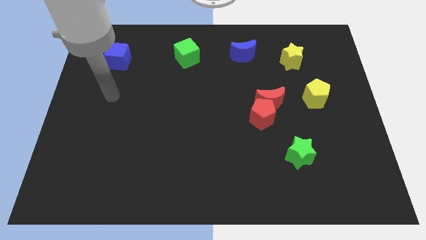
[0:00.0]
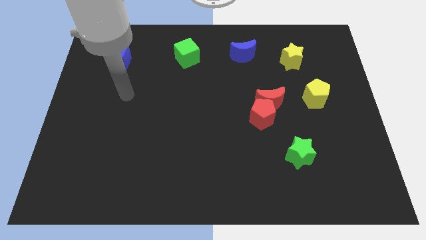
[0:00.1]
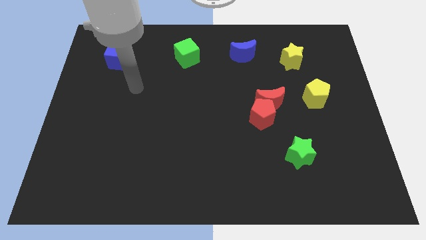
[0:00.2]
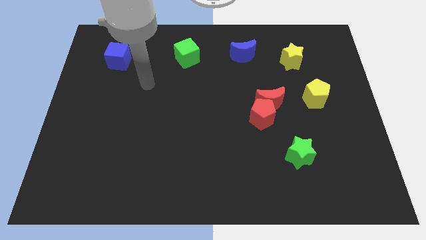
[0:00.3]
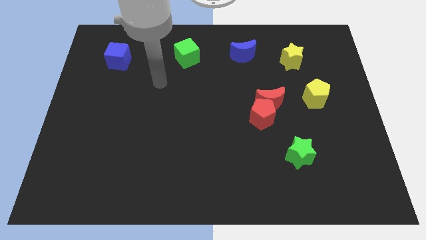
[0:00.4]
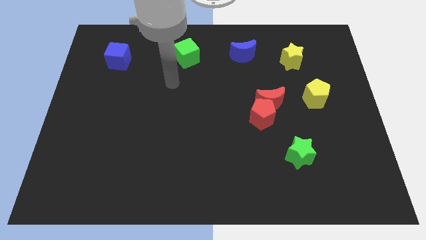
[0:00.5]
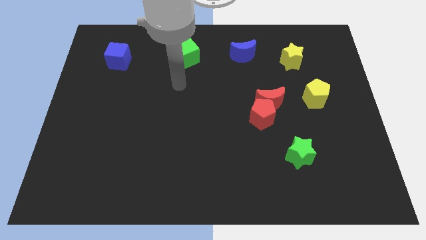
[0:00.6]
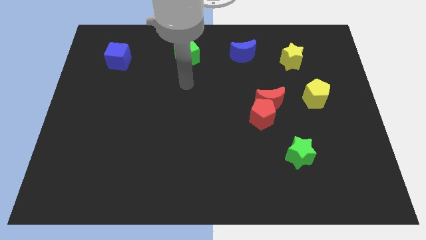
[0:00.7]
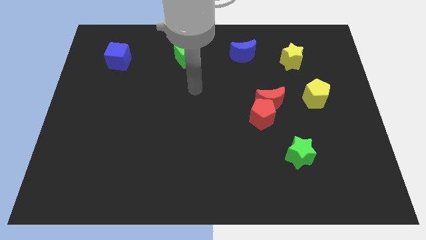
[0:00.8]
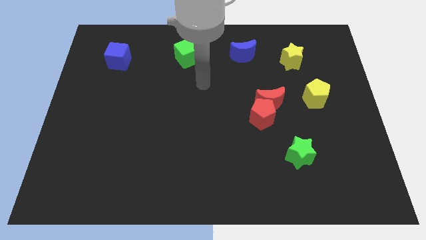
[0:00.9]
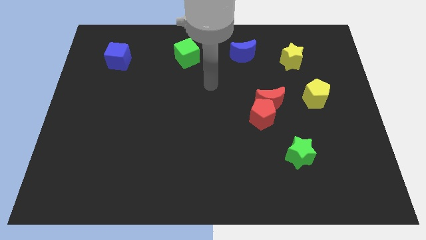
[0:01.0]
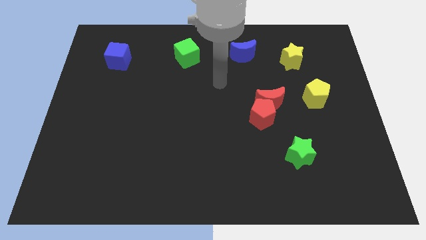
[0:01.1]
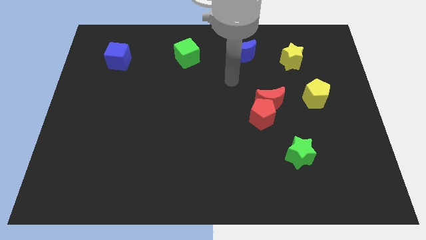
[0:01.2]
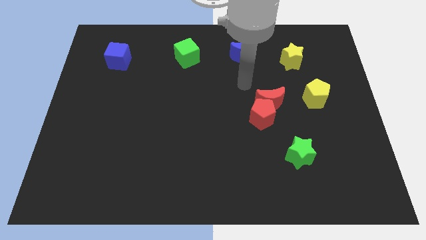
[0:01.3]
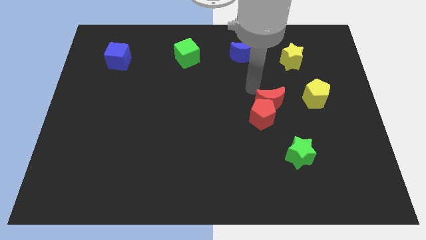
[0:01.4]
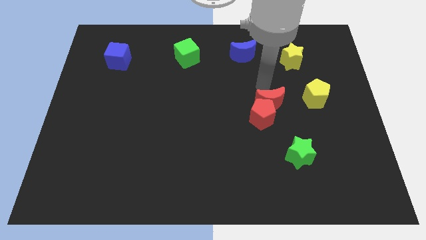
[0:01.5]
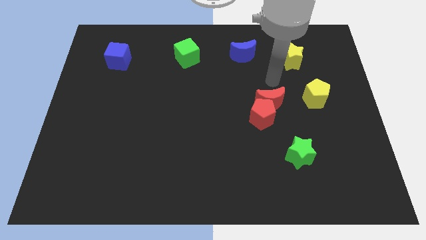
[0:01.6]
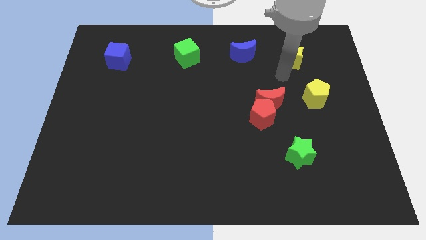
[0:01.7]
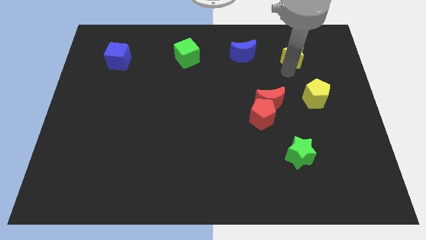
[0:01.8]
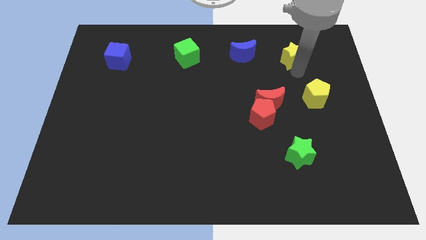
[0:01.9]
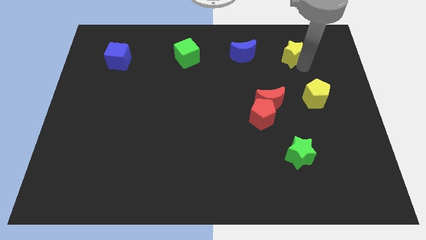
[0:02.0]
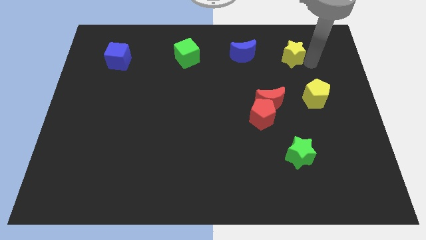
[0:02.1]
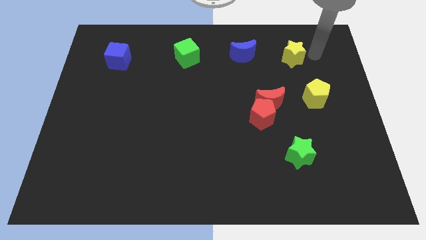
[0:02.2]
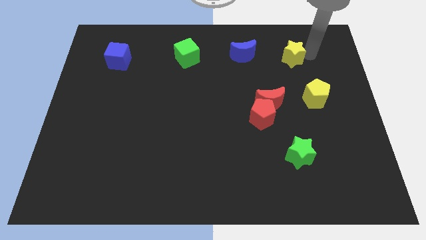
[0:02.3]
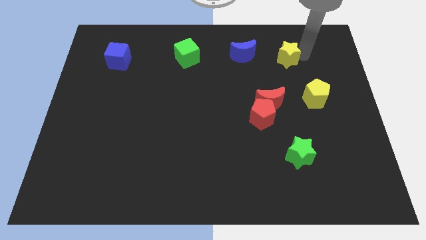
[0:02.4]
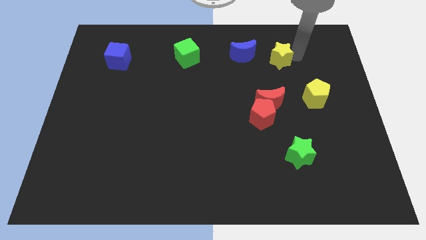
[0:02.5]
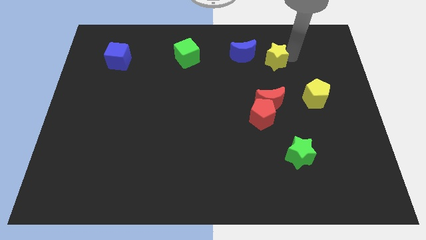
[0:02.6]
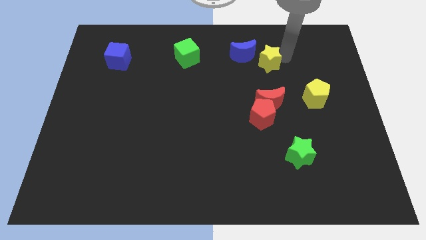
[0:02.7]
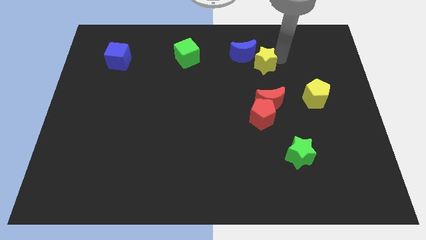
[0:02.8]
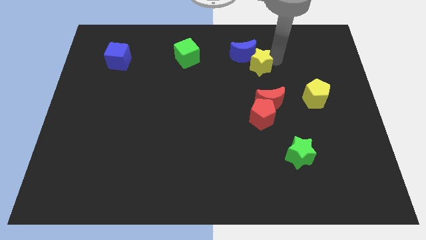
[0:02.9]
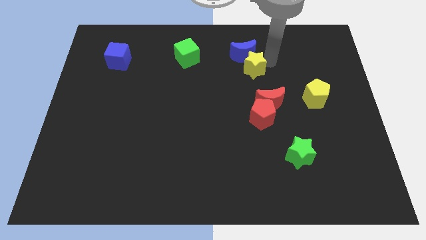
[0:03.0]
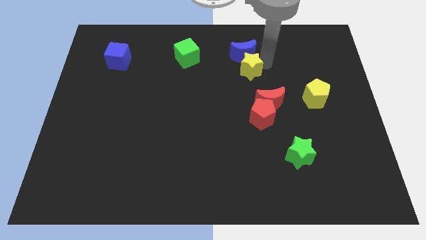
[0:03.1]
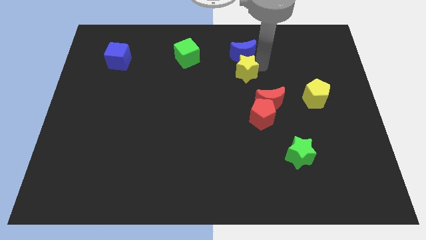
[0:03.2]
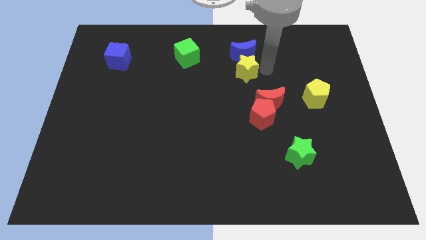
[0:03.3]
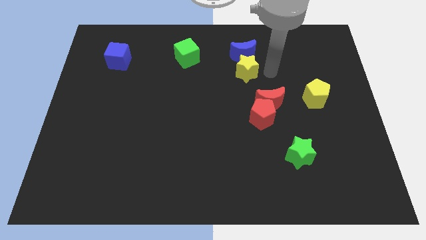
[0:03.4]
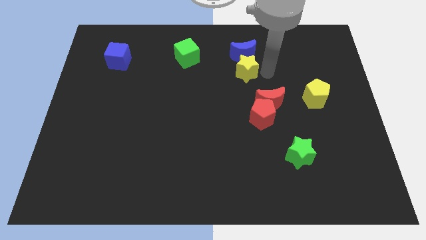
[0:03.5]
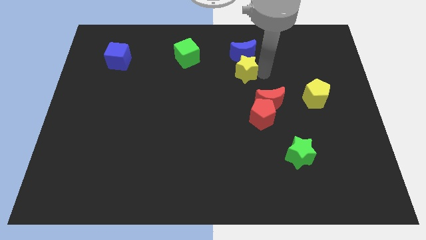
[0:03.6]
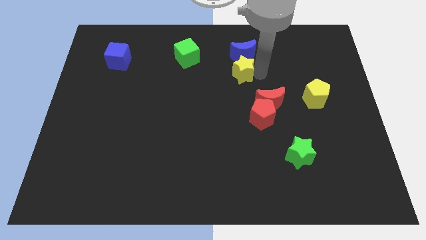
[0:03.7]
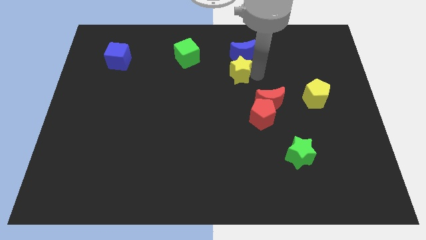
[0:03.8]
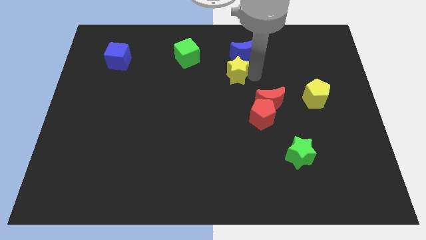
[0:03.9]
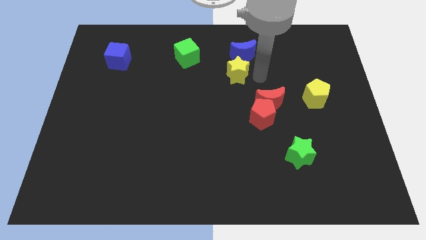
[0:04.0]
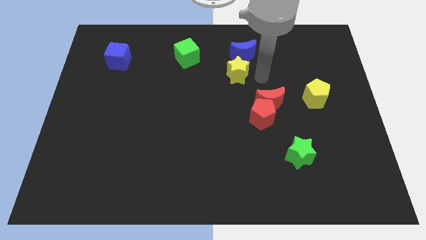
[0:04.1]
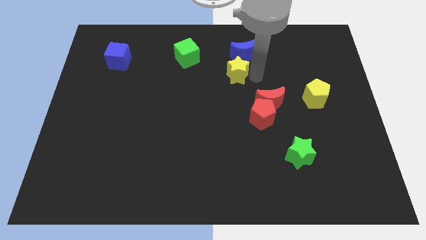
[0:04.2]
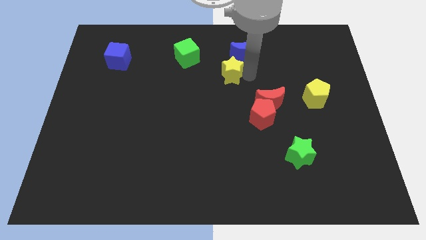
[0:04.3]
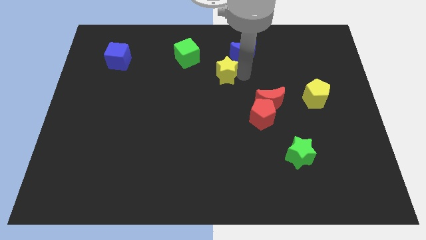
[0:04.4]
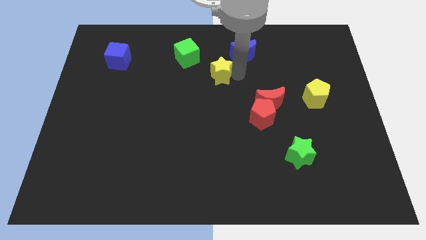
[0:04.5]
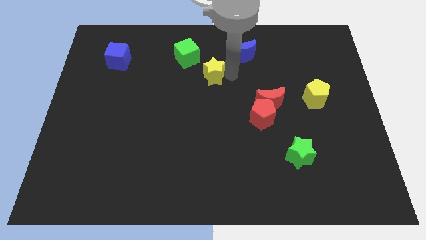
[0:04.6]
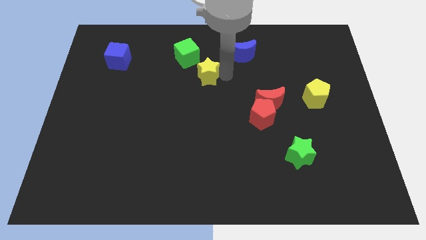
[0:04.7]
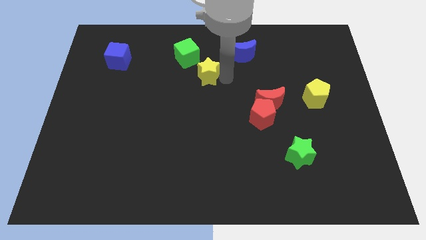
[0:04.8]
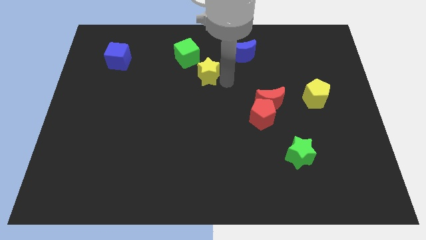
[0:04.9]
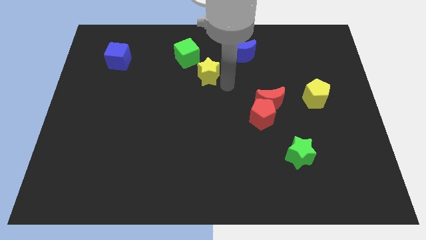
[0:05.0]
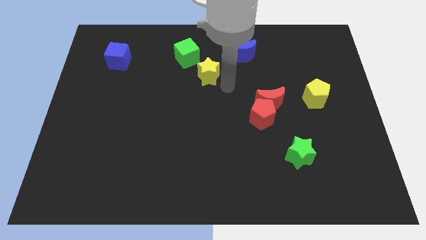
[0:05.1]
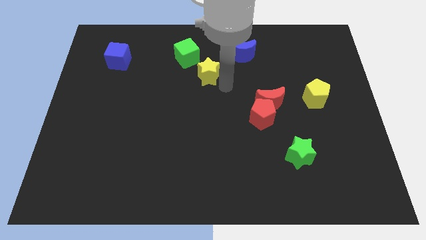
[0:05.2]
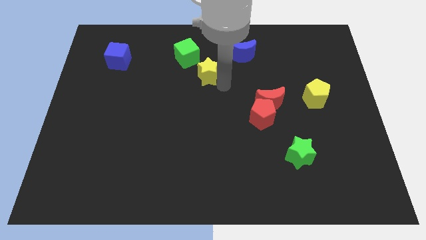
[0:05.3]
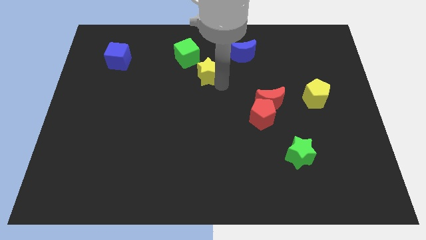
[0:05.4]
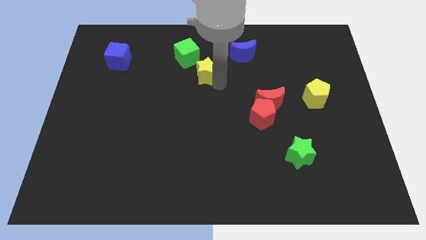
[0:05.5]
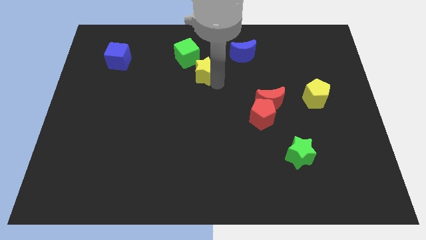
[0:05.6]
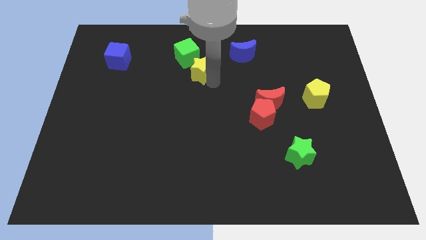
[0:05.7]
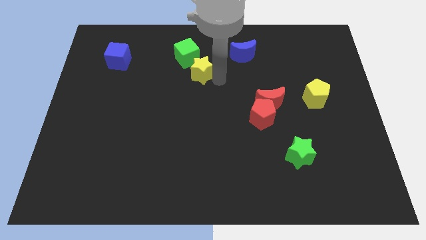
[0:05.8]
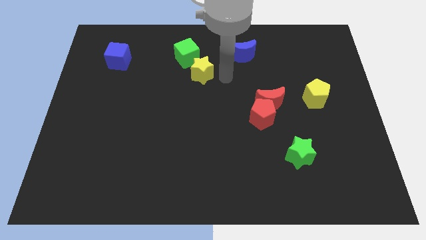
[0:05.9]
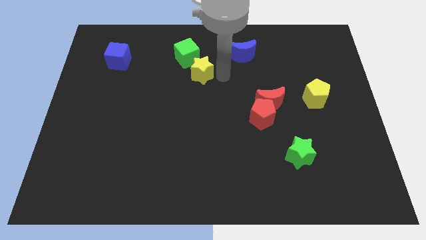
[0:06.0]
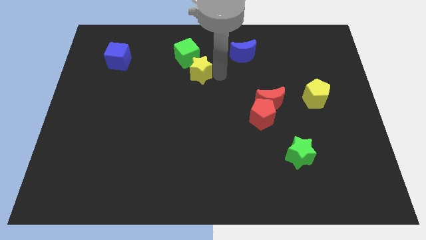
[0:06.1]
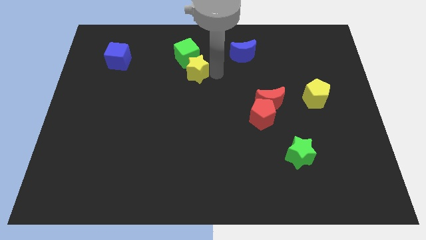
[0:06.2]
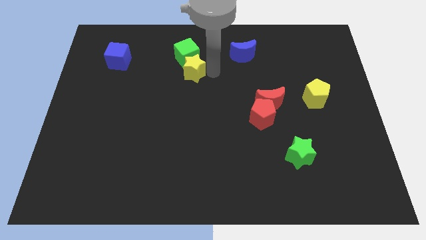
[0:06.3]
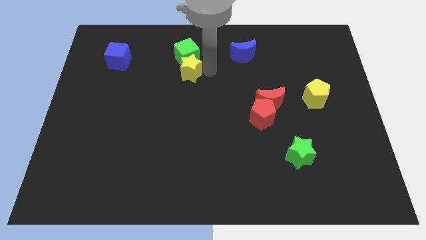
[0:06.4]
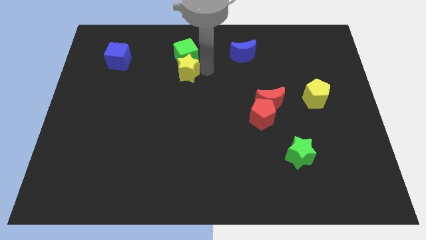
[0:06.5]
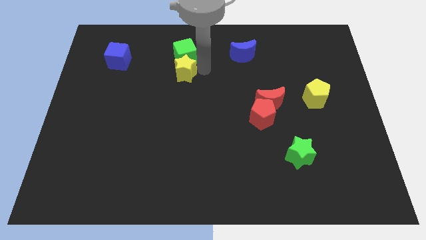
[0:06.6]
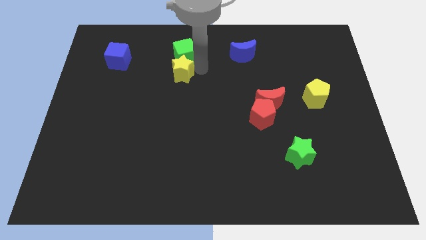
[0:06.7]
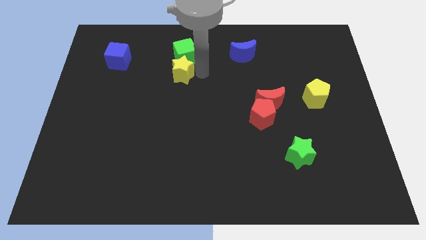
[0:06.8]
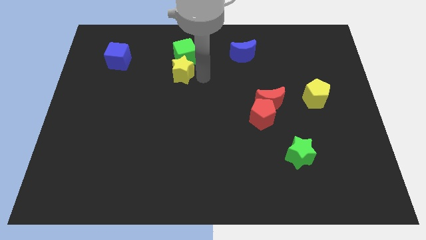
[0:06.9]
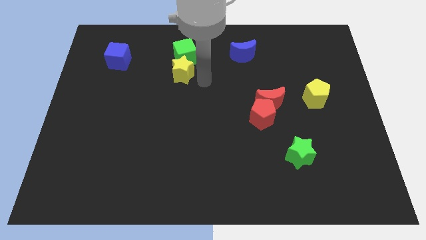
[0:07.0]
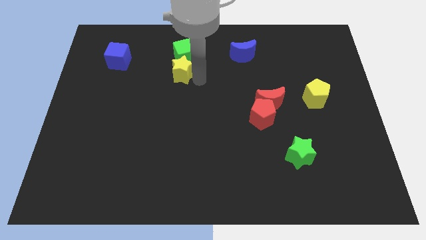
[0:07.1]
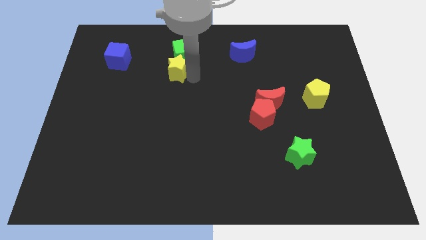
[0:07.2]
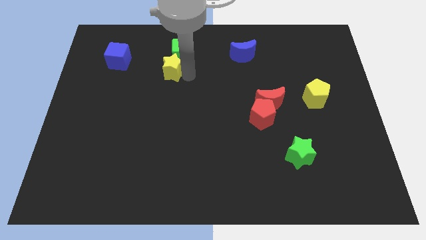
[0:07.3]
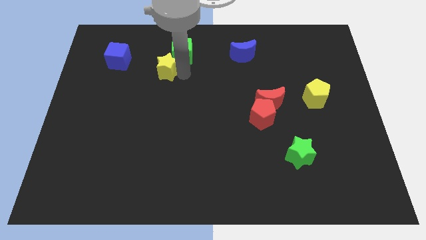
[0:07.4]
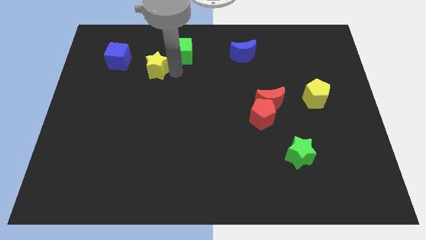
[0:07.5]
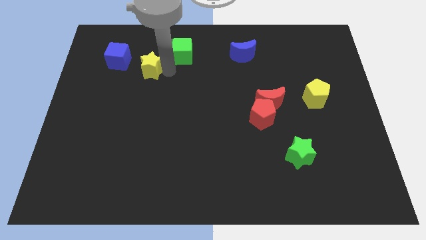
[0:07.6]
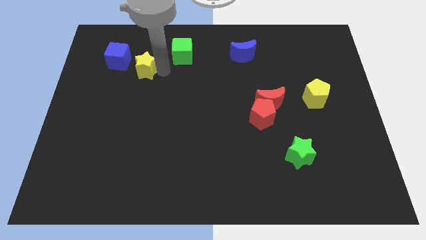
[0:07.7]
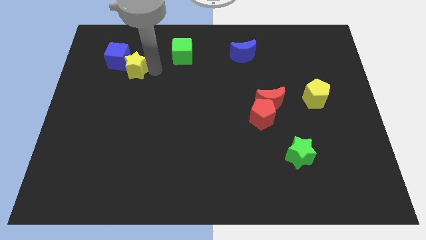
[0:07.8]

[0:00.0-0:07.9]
put the yellow star next to the blue cube

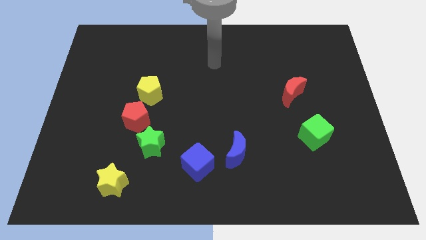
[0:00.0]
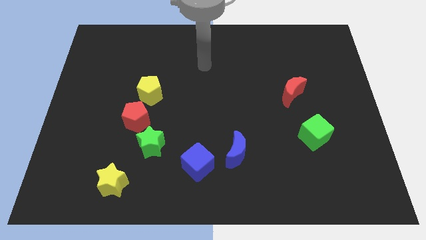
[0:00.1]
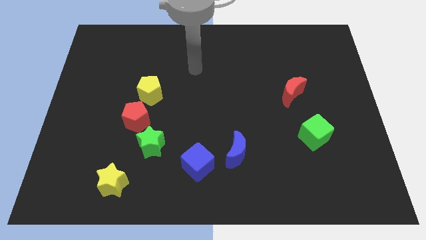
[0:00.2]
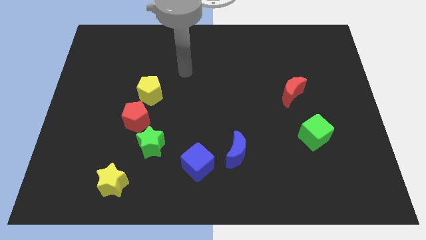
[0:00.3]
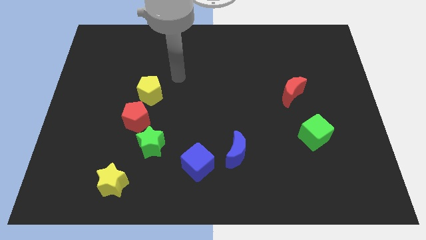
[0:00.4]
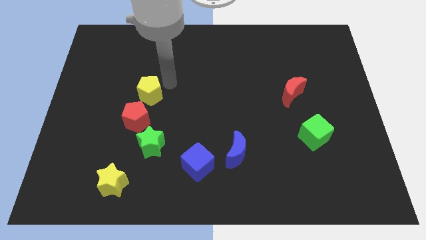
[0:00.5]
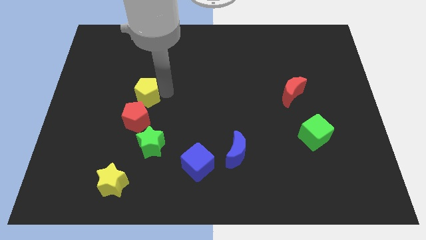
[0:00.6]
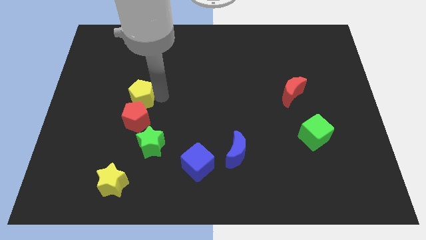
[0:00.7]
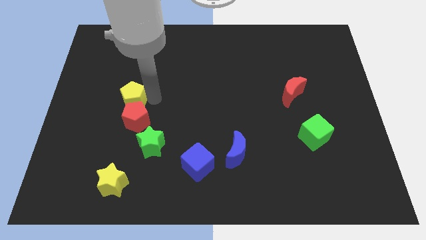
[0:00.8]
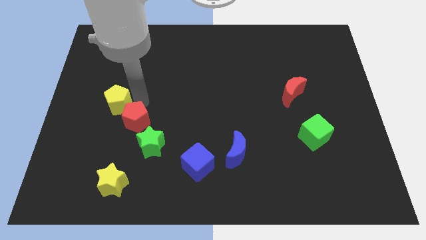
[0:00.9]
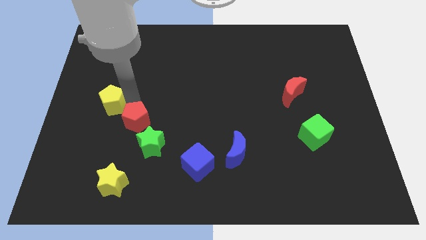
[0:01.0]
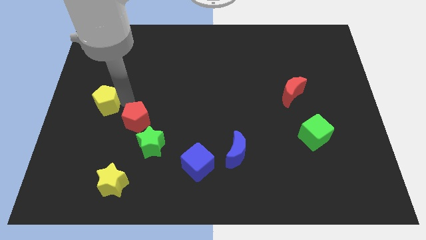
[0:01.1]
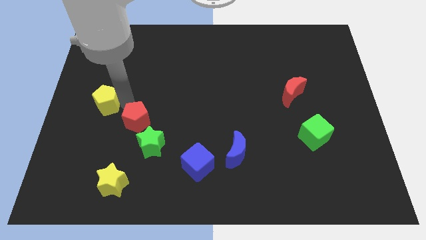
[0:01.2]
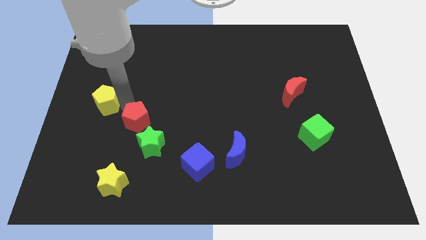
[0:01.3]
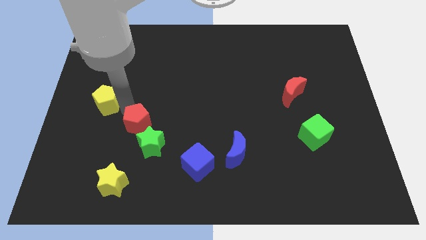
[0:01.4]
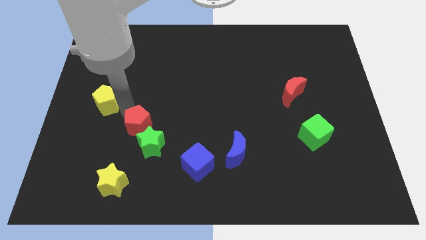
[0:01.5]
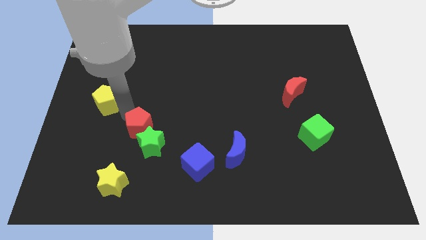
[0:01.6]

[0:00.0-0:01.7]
slide the red pentagon to the green star
